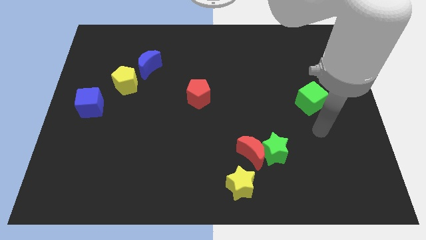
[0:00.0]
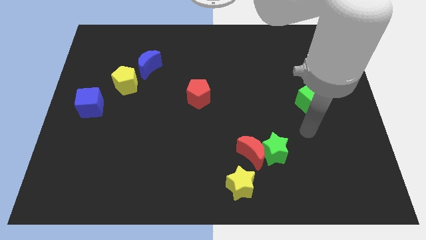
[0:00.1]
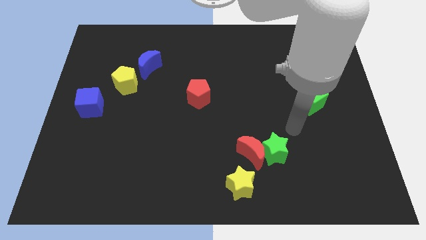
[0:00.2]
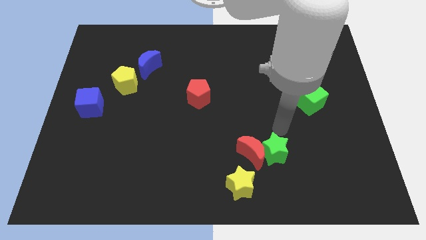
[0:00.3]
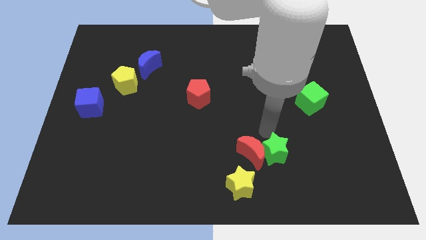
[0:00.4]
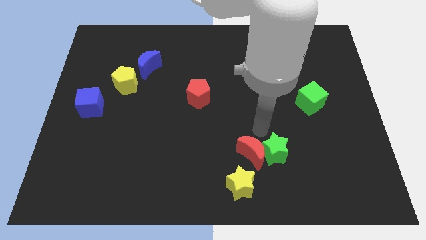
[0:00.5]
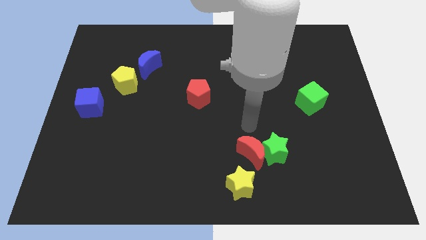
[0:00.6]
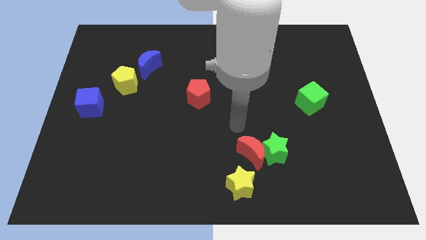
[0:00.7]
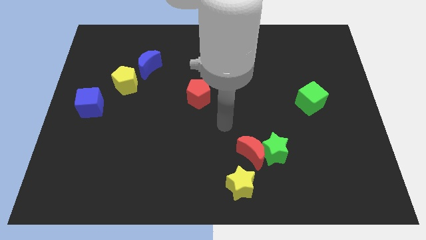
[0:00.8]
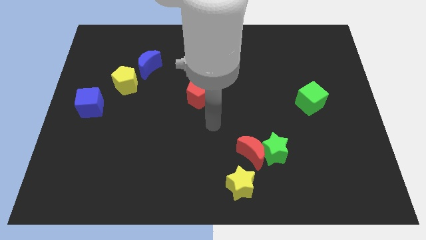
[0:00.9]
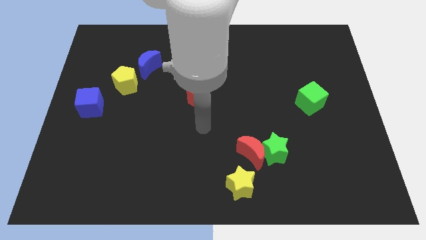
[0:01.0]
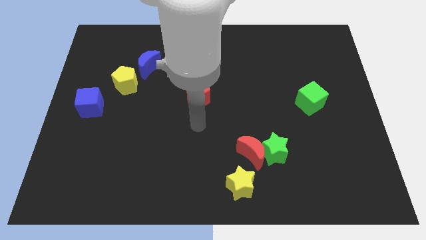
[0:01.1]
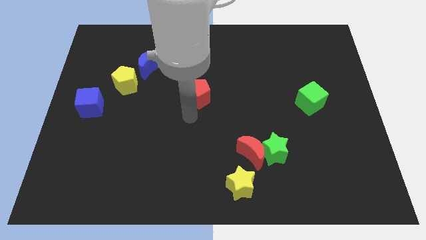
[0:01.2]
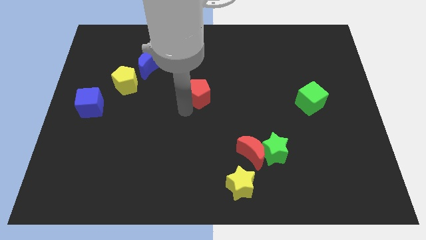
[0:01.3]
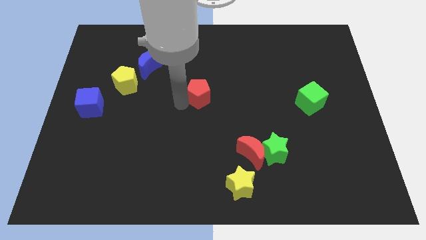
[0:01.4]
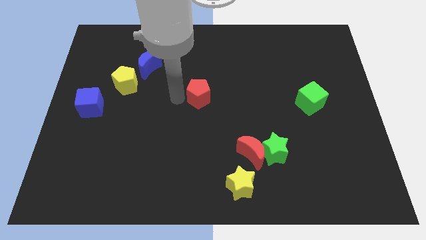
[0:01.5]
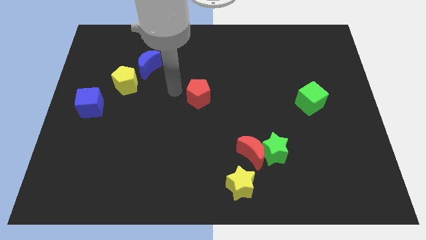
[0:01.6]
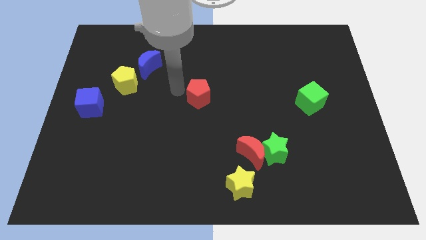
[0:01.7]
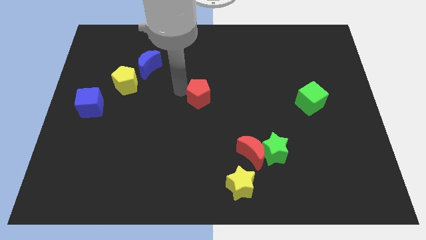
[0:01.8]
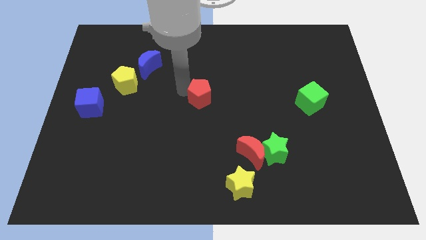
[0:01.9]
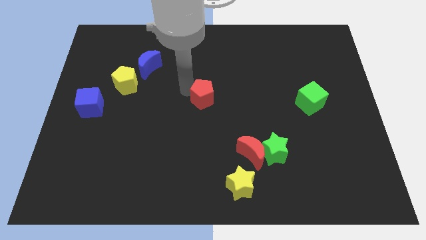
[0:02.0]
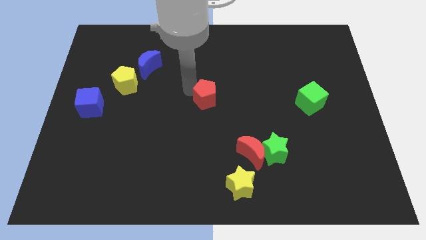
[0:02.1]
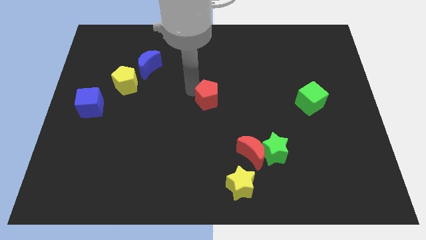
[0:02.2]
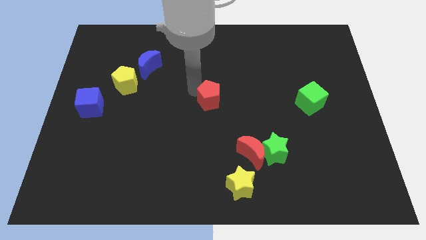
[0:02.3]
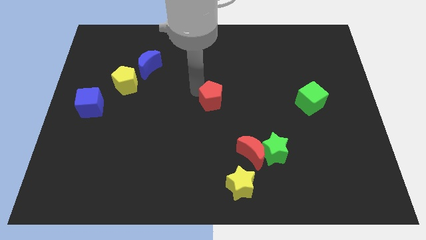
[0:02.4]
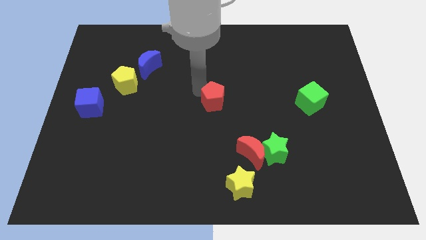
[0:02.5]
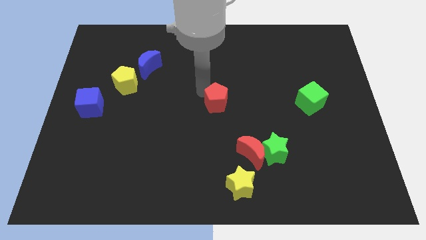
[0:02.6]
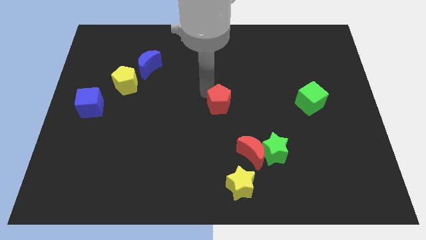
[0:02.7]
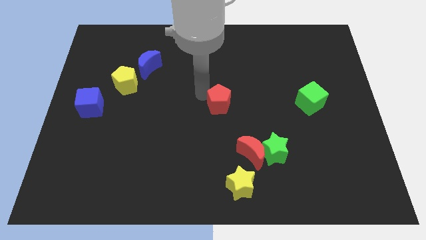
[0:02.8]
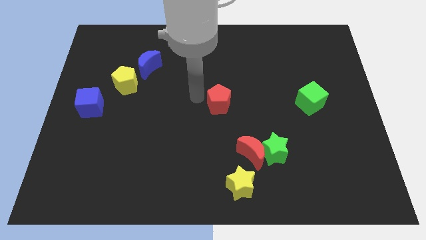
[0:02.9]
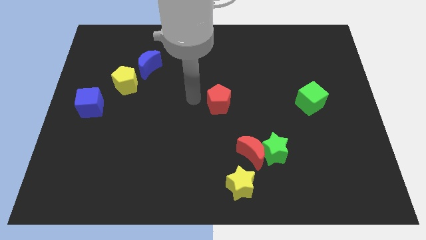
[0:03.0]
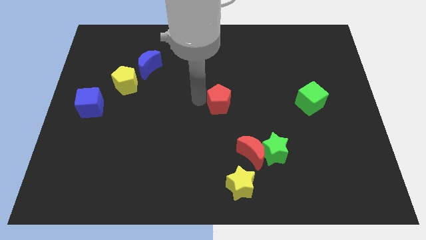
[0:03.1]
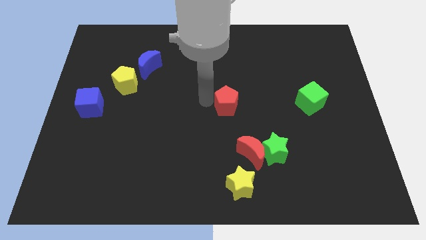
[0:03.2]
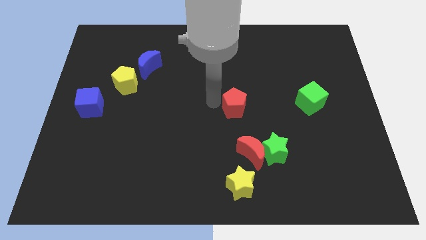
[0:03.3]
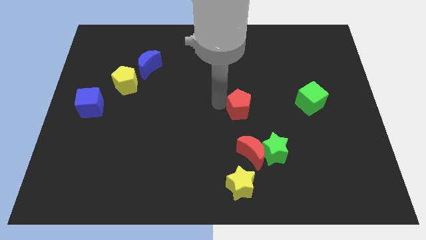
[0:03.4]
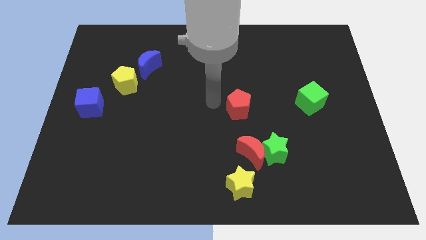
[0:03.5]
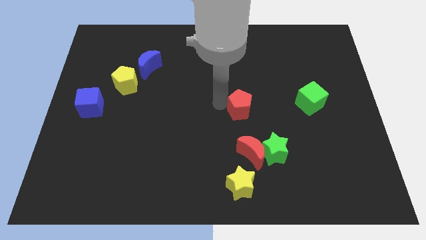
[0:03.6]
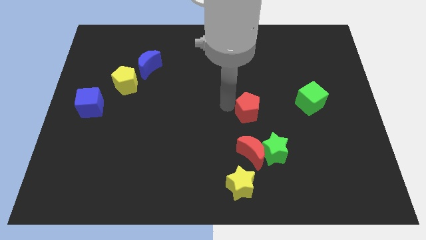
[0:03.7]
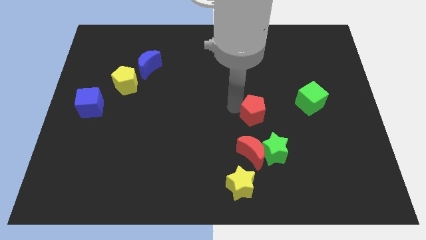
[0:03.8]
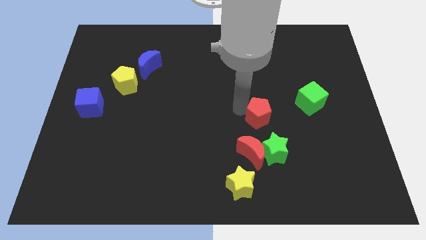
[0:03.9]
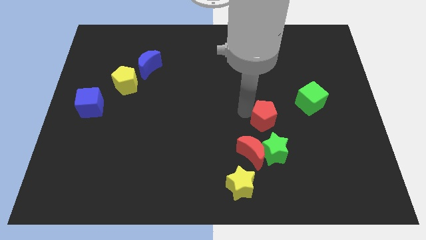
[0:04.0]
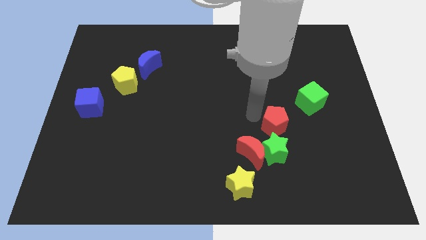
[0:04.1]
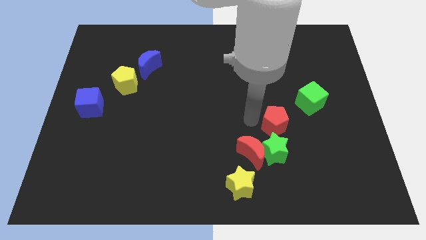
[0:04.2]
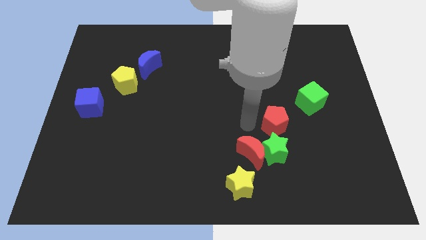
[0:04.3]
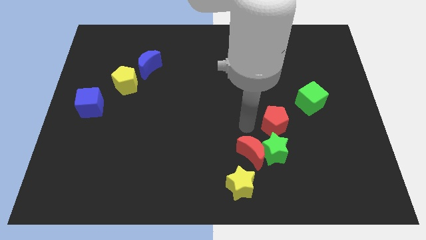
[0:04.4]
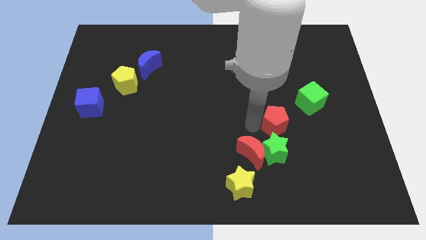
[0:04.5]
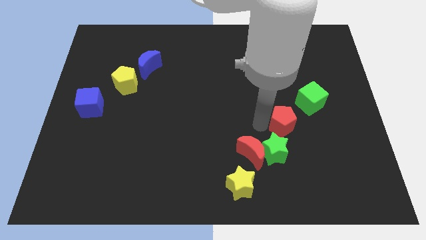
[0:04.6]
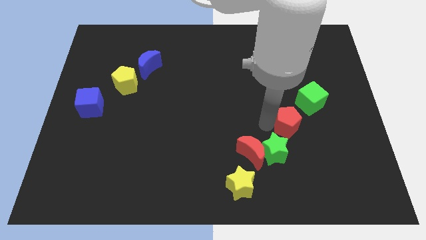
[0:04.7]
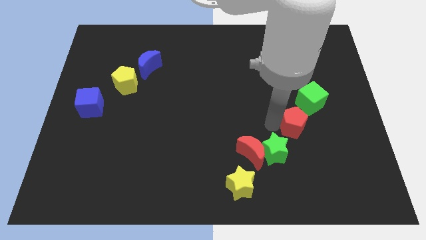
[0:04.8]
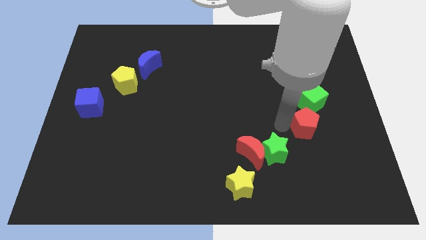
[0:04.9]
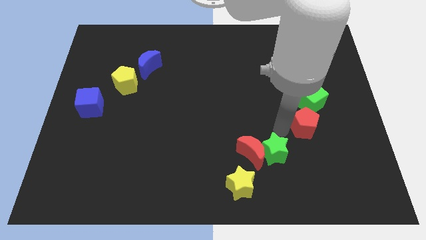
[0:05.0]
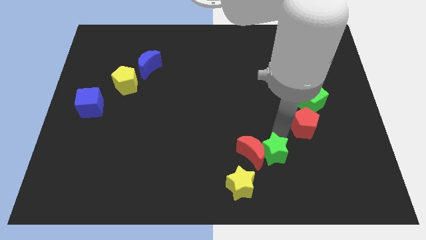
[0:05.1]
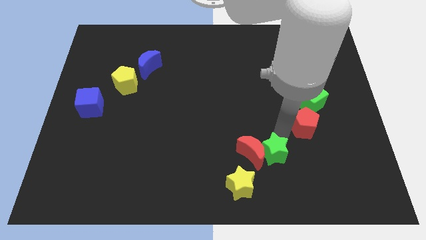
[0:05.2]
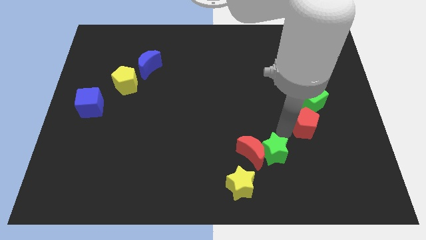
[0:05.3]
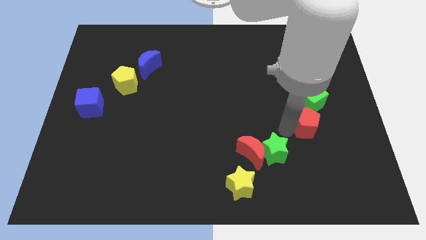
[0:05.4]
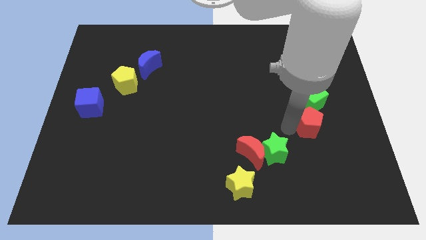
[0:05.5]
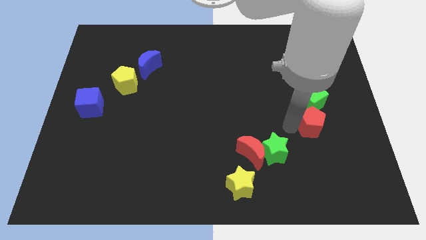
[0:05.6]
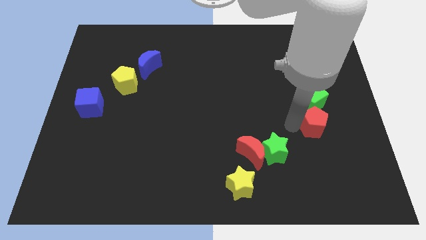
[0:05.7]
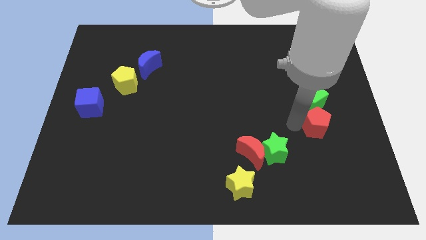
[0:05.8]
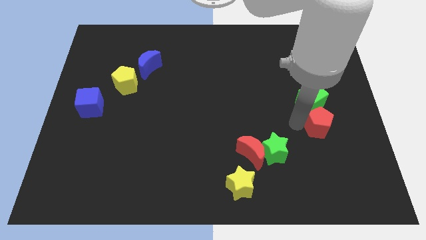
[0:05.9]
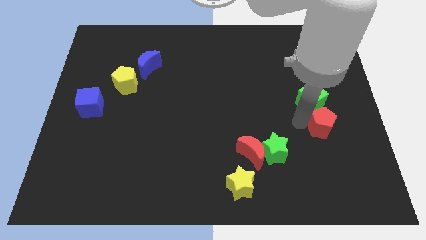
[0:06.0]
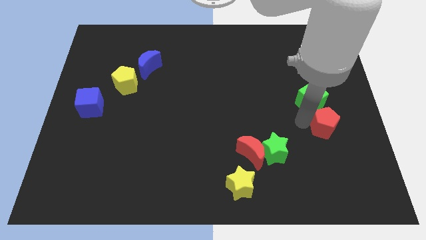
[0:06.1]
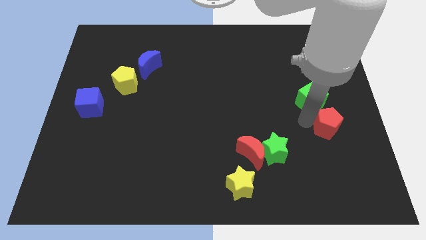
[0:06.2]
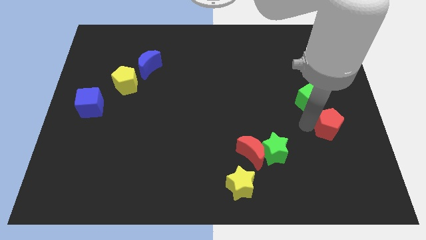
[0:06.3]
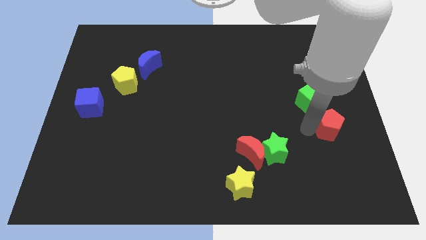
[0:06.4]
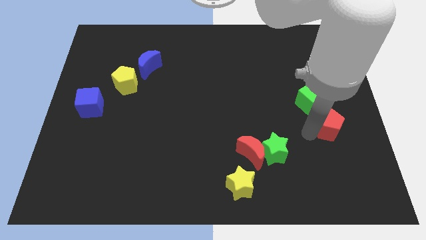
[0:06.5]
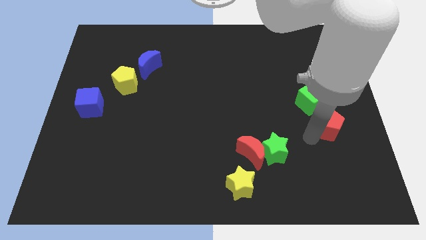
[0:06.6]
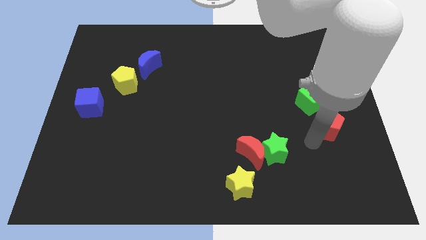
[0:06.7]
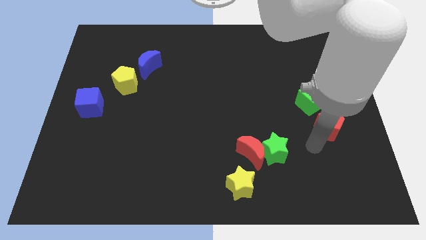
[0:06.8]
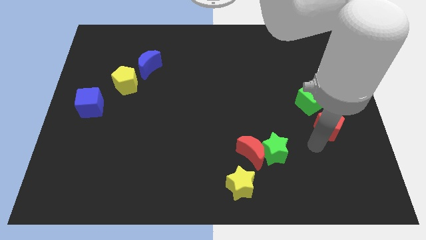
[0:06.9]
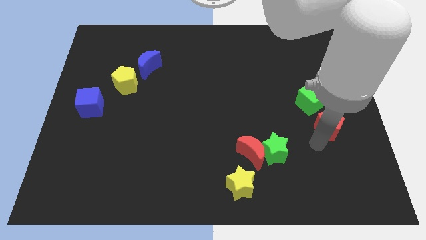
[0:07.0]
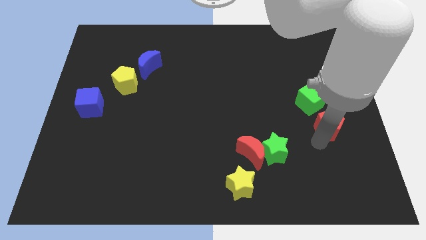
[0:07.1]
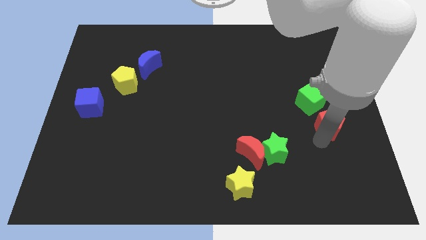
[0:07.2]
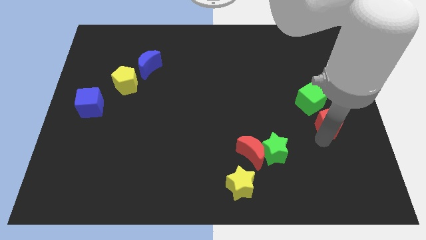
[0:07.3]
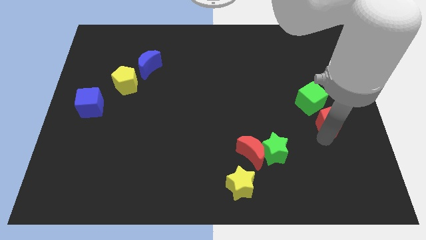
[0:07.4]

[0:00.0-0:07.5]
push the red pentagon to the right side of the board
